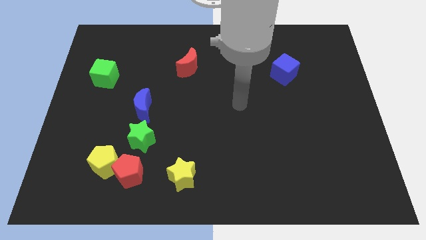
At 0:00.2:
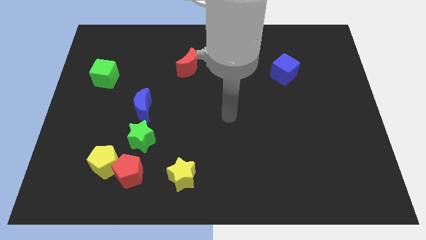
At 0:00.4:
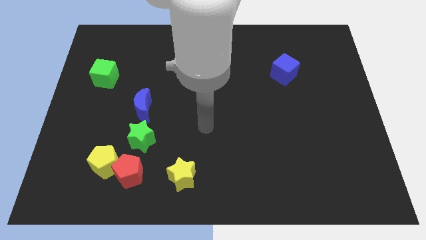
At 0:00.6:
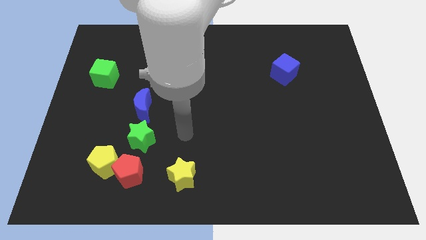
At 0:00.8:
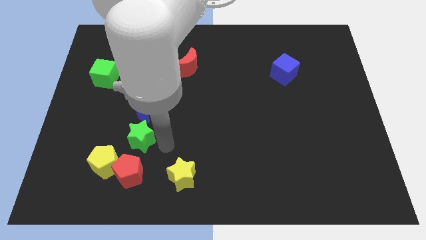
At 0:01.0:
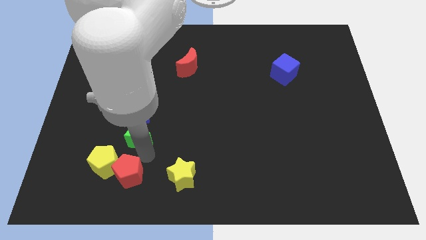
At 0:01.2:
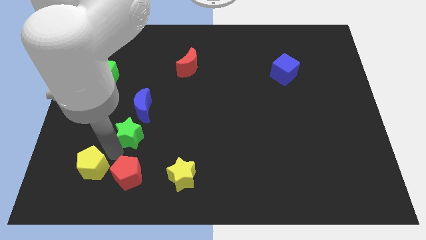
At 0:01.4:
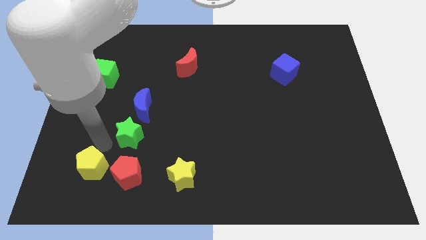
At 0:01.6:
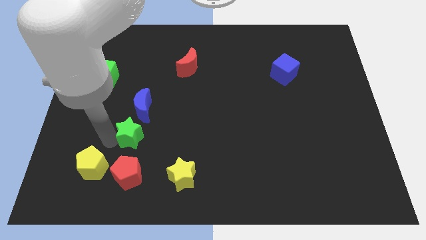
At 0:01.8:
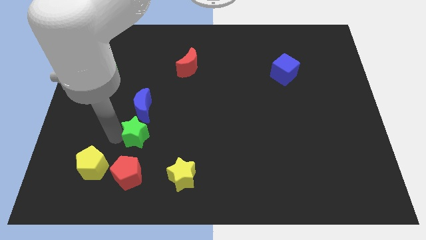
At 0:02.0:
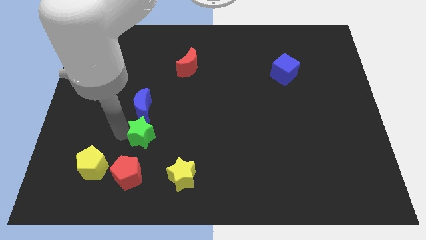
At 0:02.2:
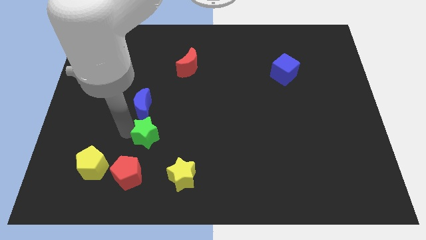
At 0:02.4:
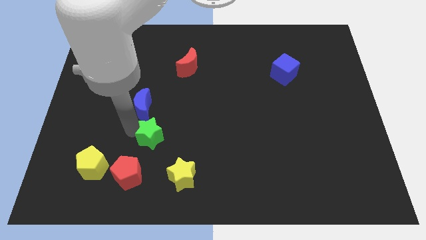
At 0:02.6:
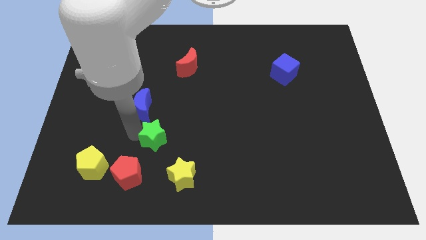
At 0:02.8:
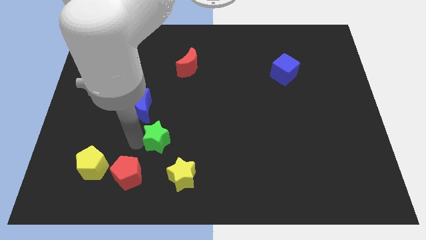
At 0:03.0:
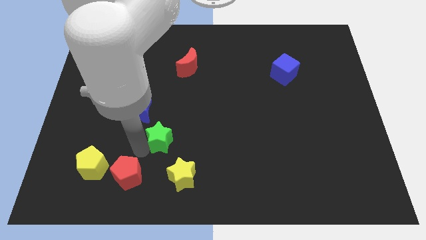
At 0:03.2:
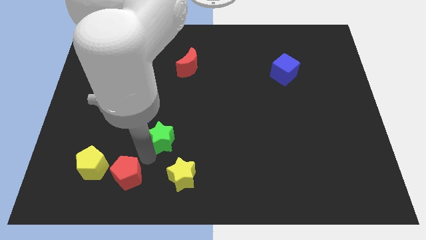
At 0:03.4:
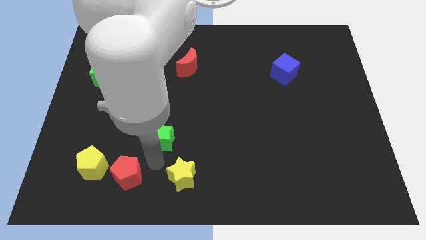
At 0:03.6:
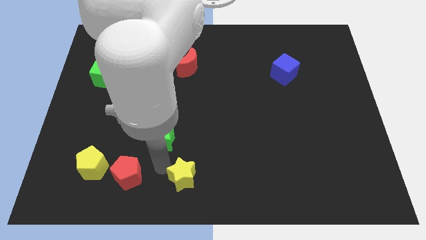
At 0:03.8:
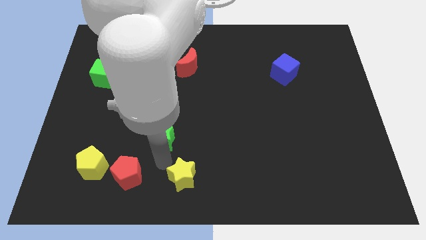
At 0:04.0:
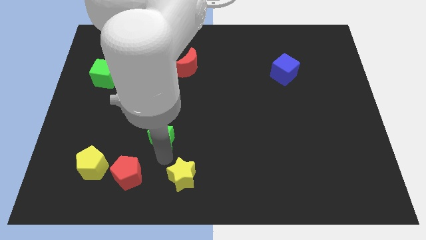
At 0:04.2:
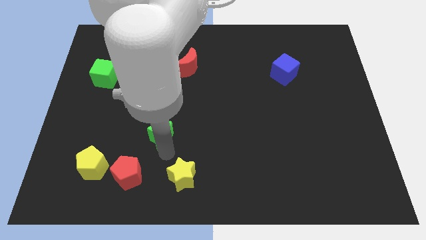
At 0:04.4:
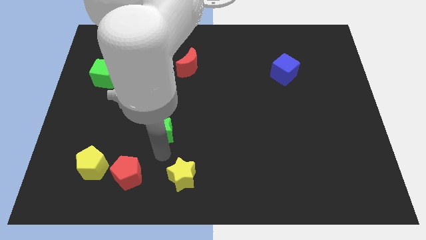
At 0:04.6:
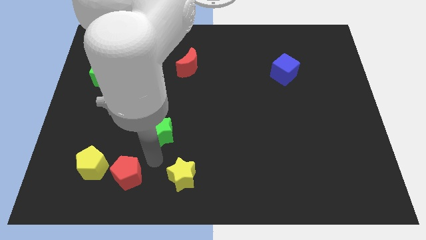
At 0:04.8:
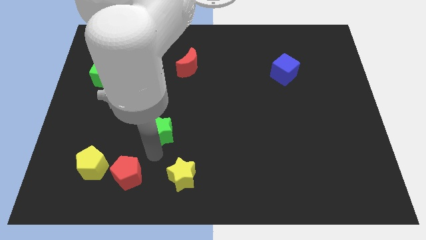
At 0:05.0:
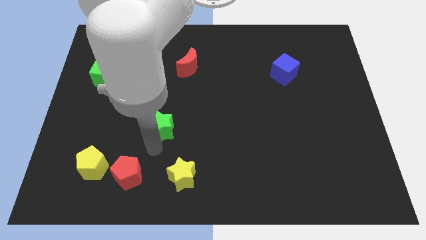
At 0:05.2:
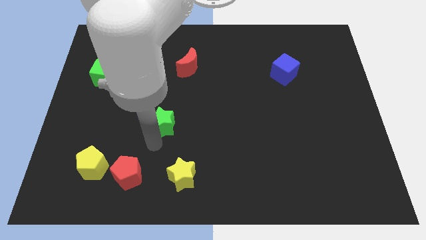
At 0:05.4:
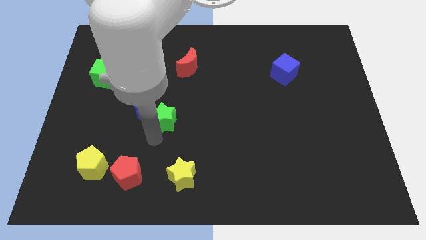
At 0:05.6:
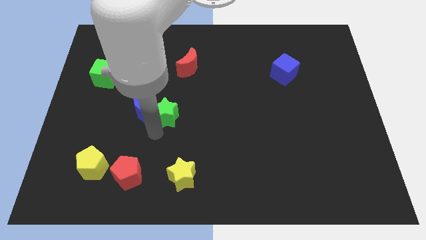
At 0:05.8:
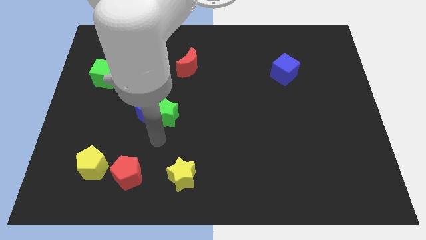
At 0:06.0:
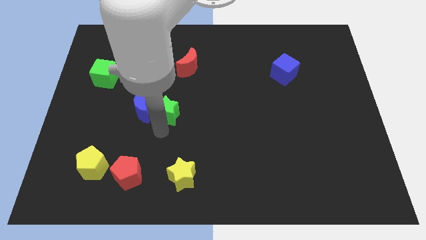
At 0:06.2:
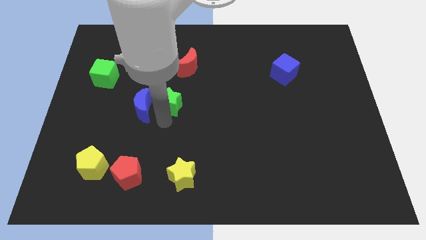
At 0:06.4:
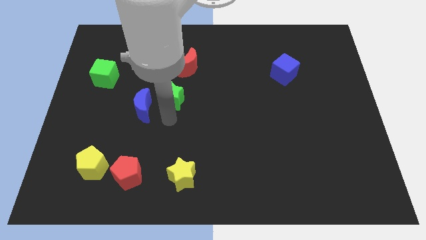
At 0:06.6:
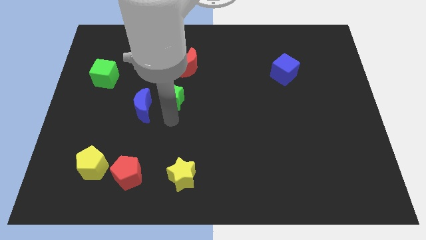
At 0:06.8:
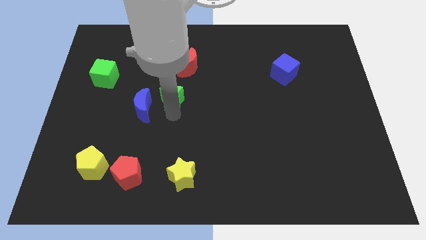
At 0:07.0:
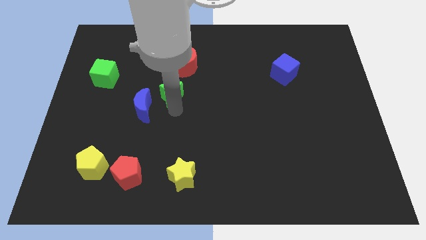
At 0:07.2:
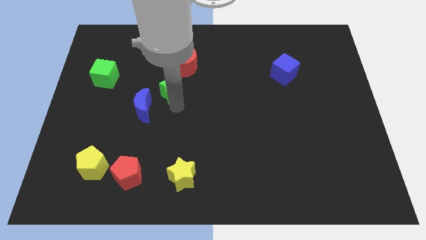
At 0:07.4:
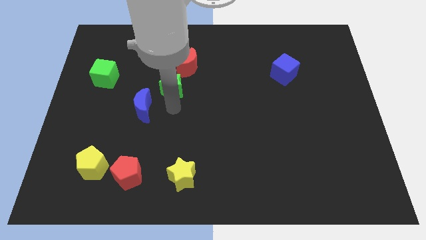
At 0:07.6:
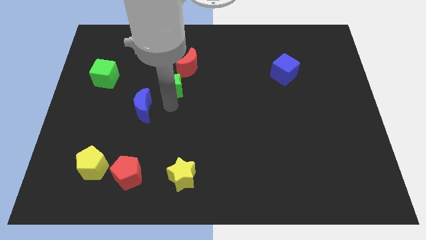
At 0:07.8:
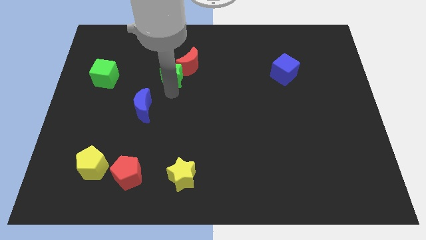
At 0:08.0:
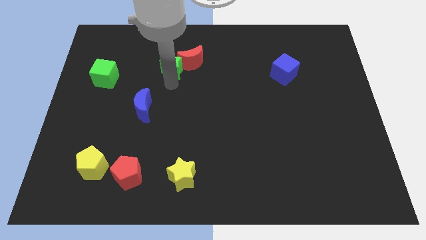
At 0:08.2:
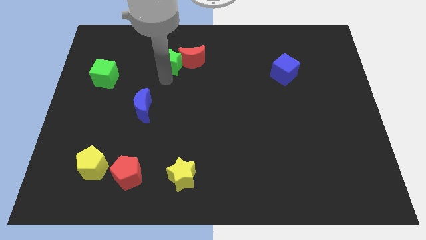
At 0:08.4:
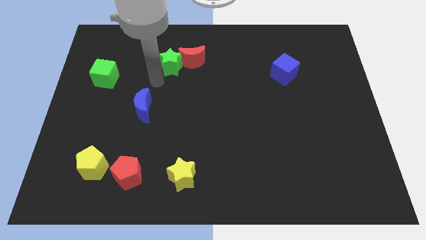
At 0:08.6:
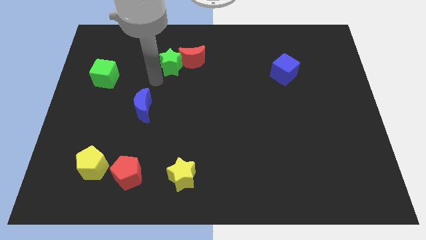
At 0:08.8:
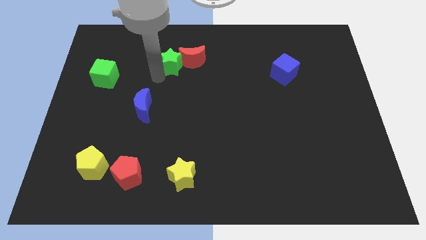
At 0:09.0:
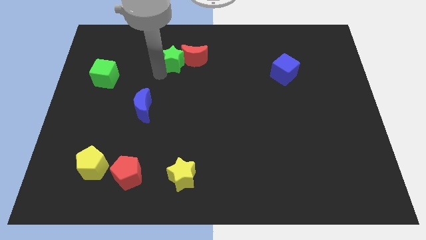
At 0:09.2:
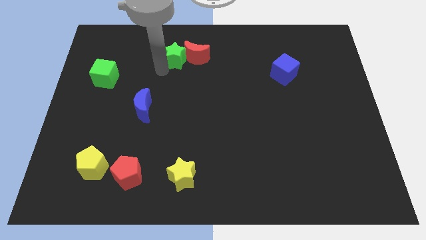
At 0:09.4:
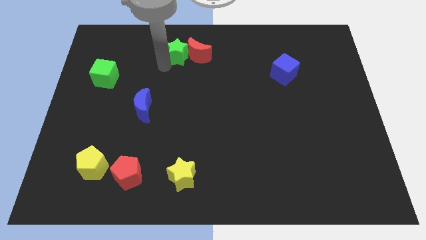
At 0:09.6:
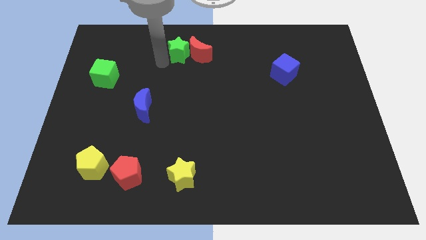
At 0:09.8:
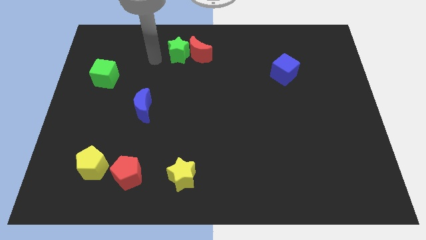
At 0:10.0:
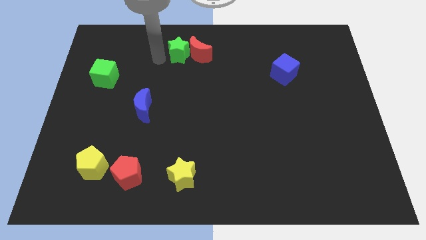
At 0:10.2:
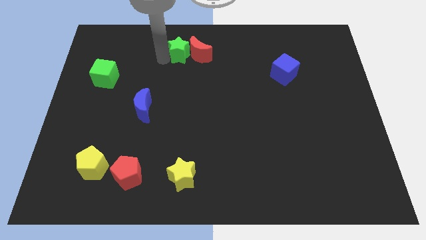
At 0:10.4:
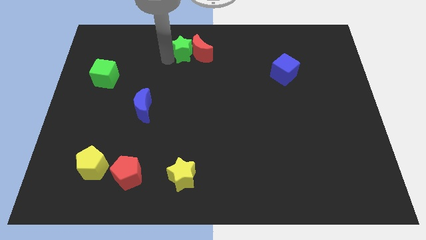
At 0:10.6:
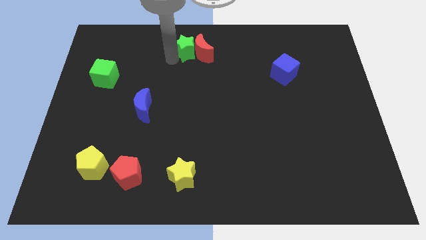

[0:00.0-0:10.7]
put the green star to the towards your base

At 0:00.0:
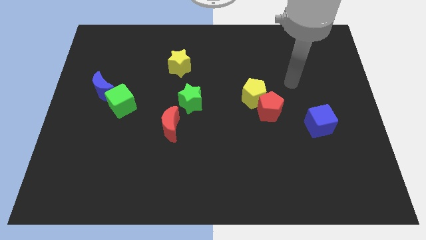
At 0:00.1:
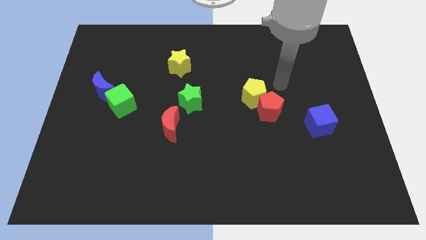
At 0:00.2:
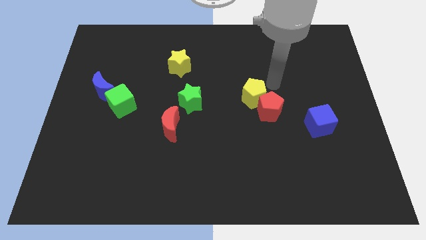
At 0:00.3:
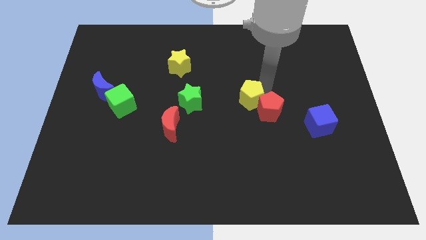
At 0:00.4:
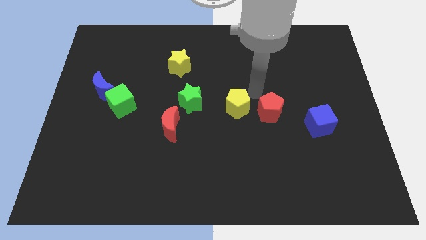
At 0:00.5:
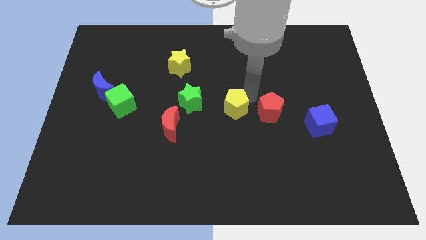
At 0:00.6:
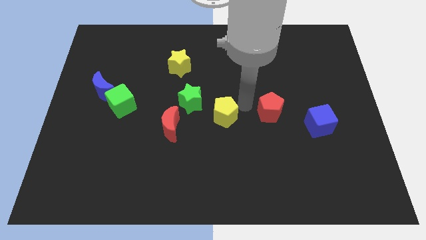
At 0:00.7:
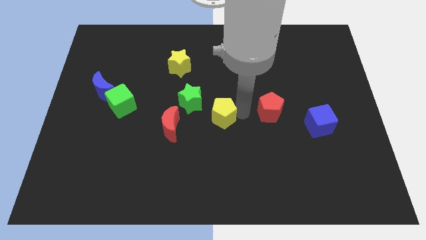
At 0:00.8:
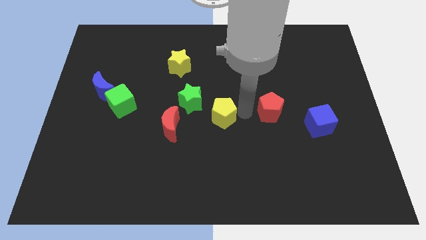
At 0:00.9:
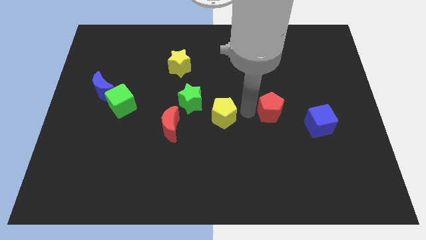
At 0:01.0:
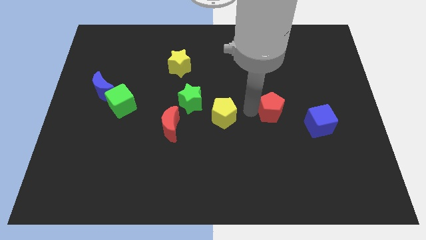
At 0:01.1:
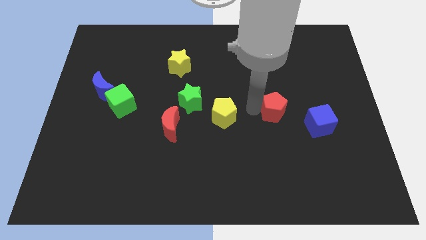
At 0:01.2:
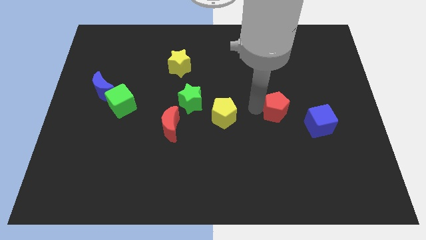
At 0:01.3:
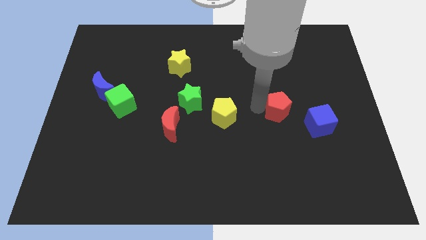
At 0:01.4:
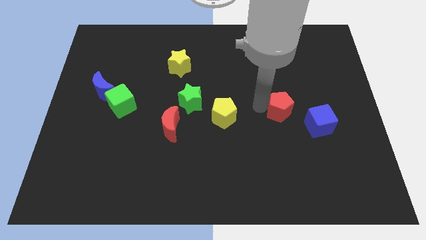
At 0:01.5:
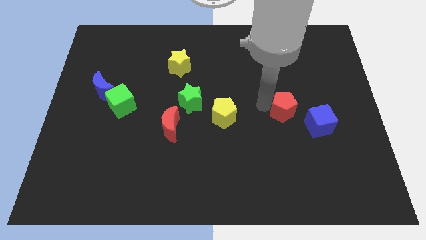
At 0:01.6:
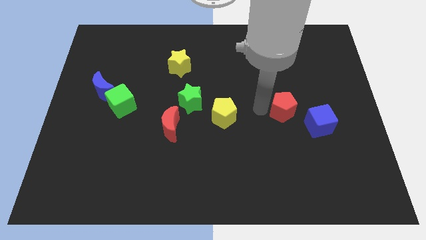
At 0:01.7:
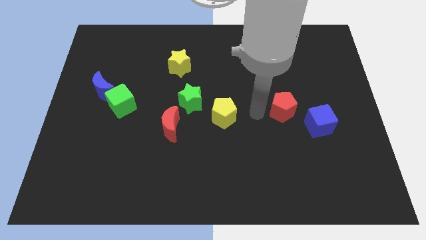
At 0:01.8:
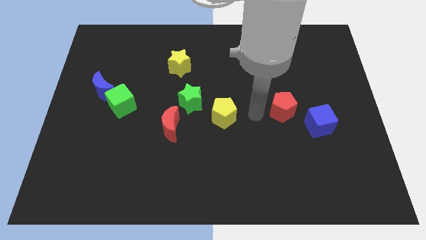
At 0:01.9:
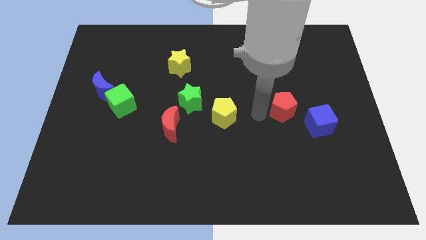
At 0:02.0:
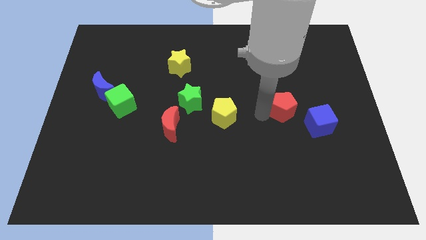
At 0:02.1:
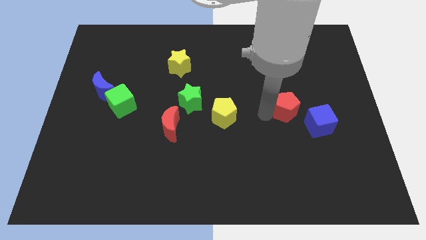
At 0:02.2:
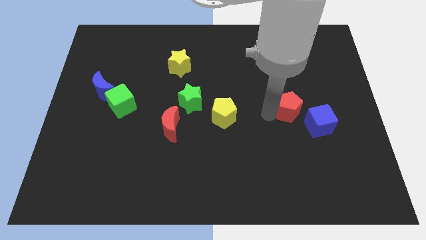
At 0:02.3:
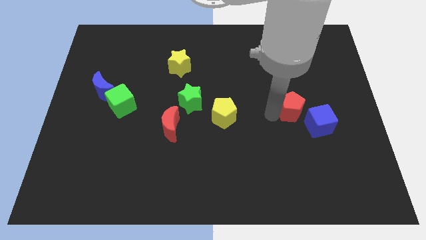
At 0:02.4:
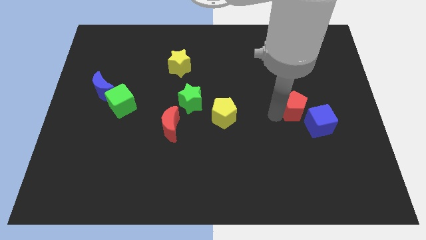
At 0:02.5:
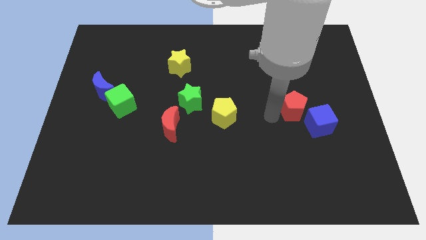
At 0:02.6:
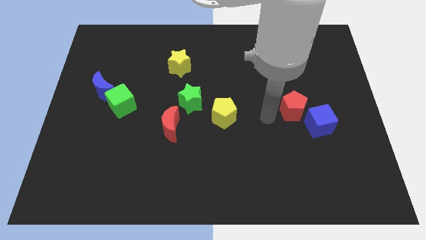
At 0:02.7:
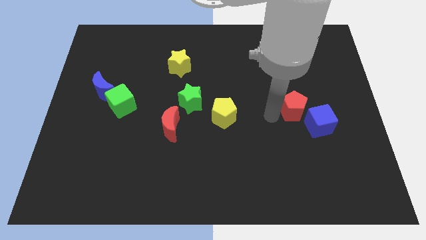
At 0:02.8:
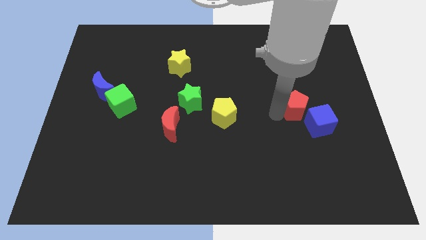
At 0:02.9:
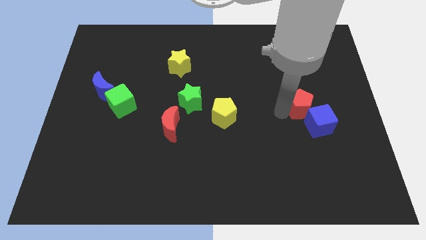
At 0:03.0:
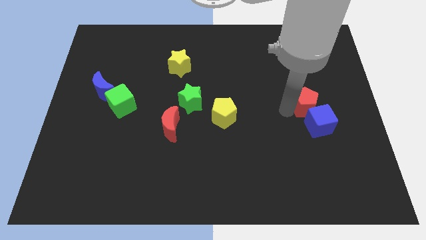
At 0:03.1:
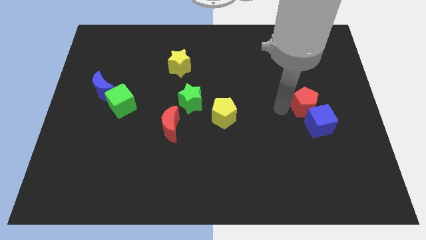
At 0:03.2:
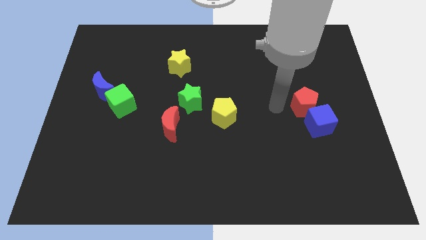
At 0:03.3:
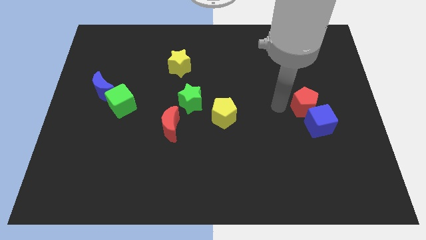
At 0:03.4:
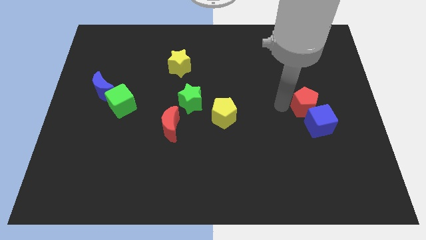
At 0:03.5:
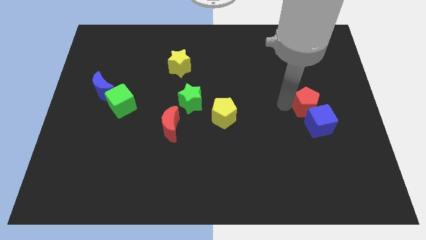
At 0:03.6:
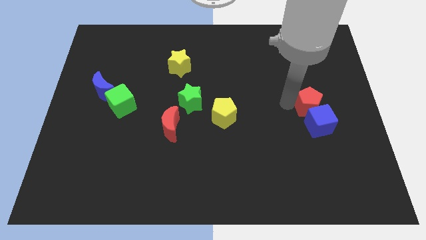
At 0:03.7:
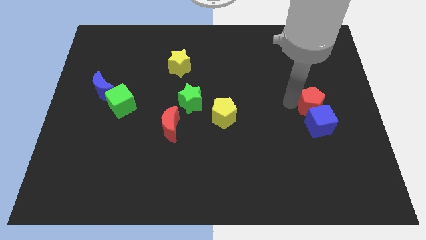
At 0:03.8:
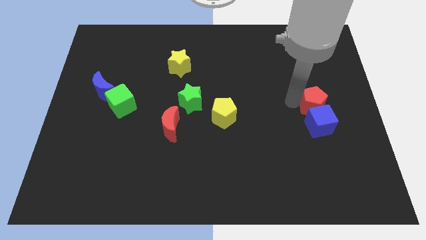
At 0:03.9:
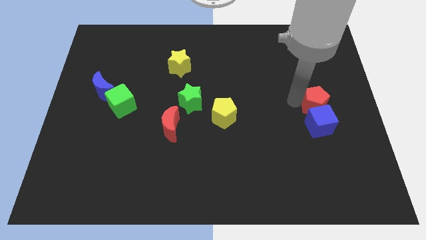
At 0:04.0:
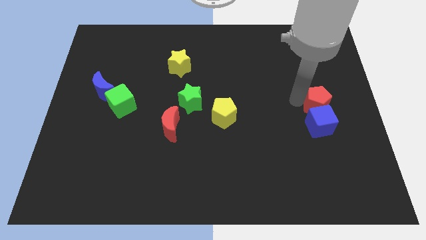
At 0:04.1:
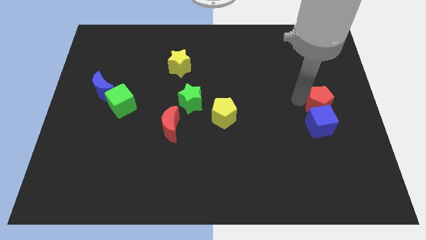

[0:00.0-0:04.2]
push the red pentagon to the center right
